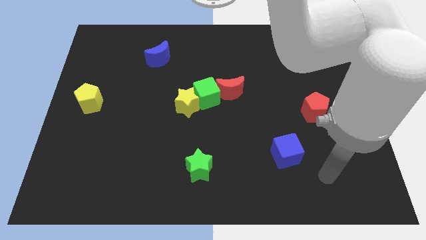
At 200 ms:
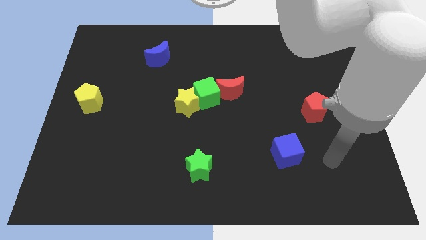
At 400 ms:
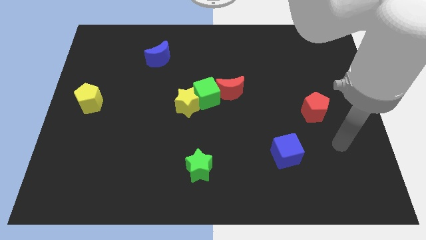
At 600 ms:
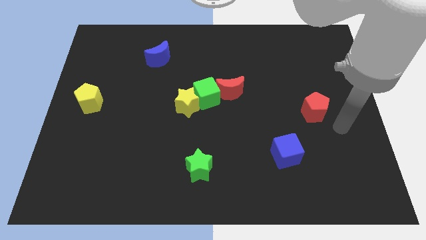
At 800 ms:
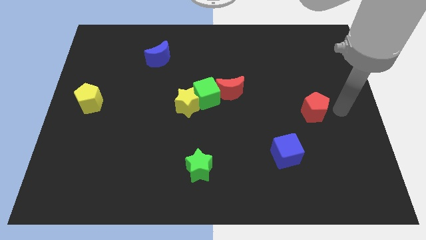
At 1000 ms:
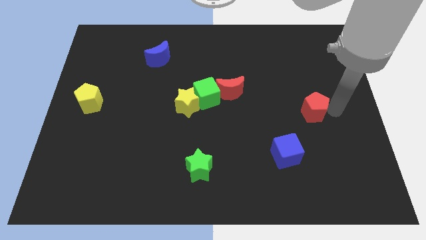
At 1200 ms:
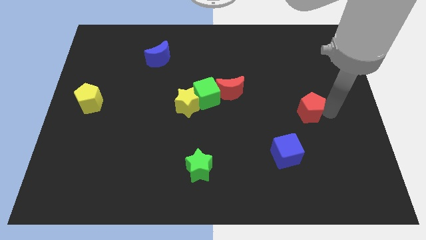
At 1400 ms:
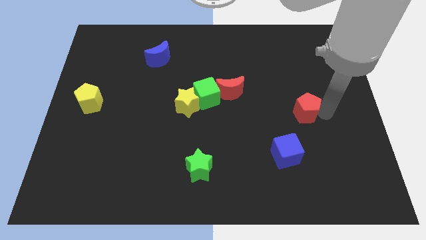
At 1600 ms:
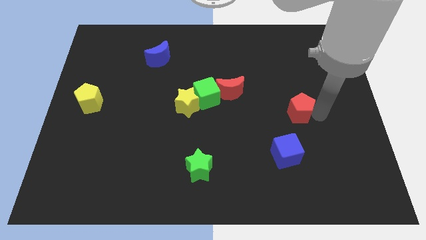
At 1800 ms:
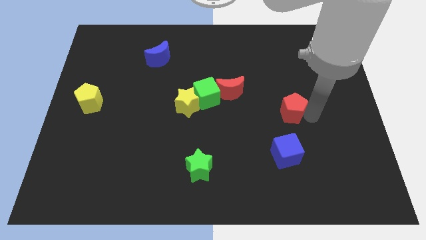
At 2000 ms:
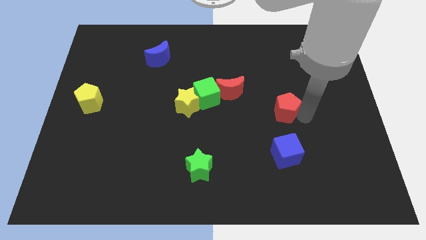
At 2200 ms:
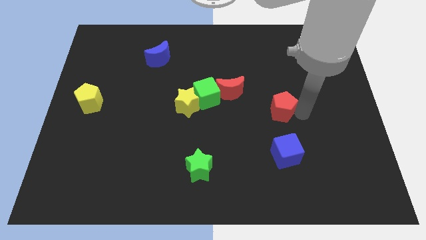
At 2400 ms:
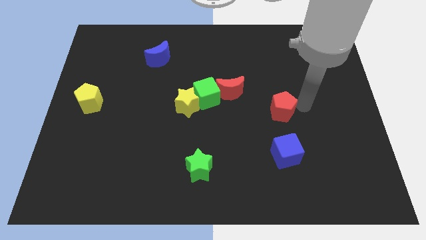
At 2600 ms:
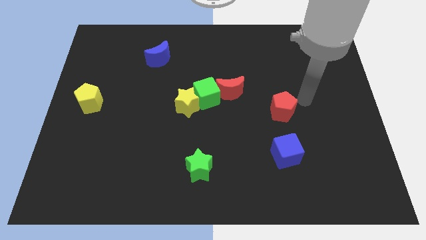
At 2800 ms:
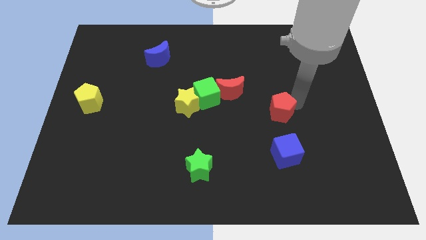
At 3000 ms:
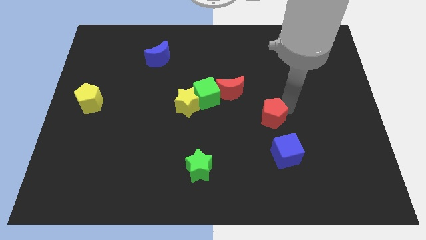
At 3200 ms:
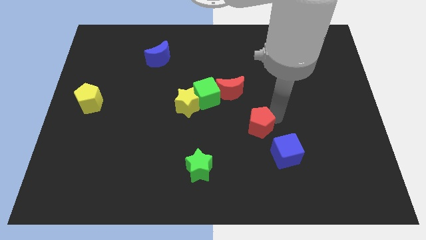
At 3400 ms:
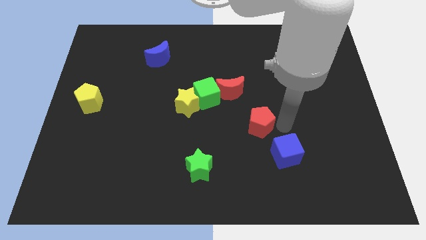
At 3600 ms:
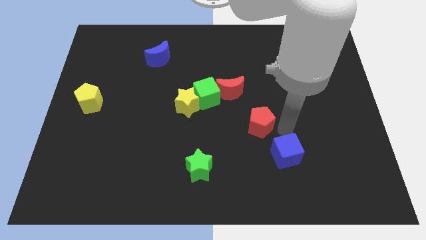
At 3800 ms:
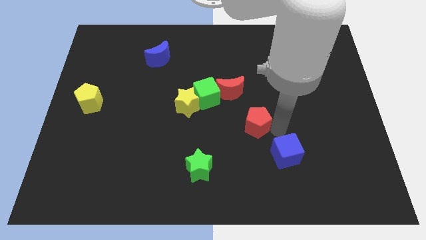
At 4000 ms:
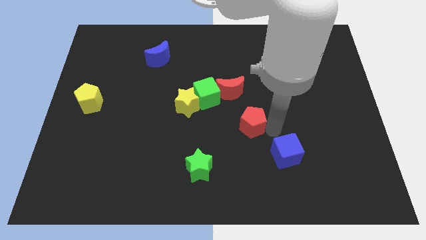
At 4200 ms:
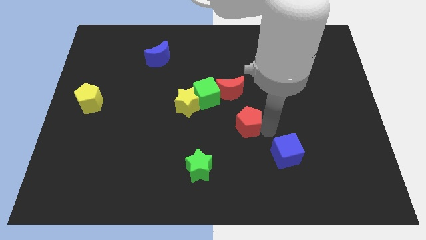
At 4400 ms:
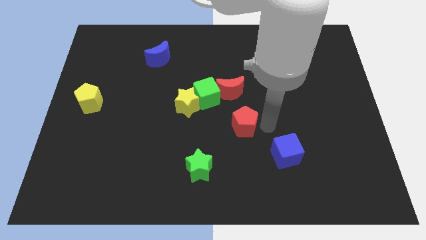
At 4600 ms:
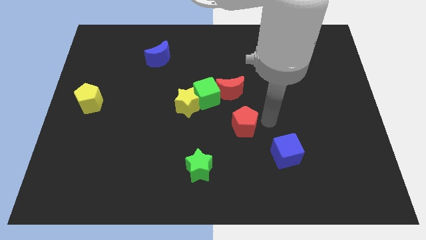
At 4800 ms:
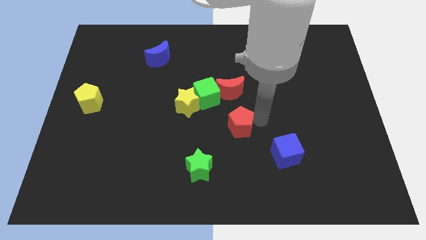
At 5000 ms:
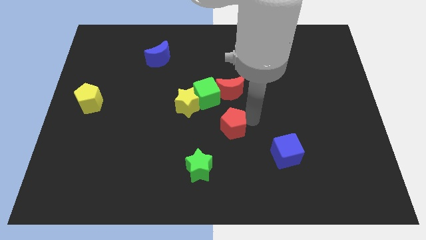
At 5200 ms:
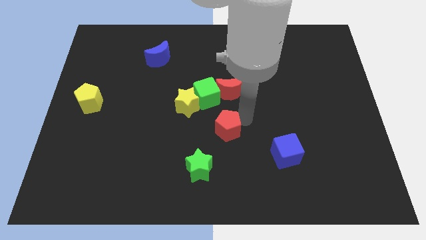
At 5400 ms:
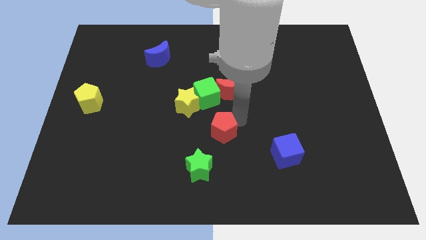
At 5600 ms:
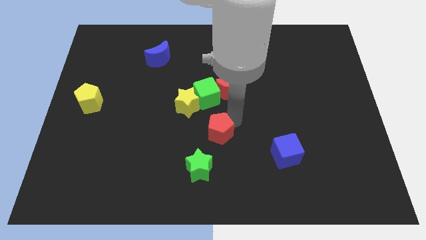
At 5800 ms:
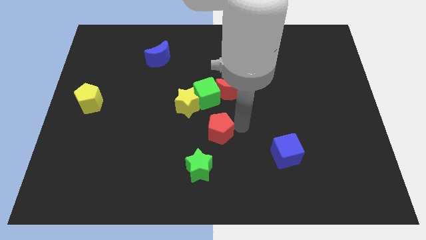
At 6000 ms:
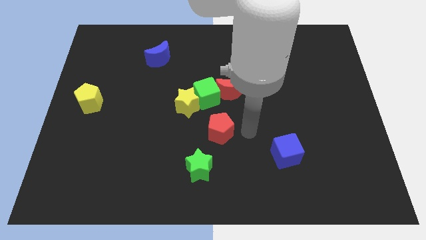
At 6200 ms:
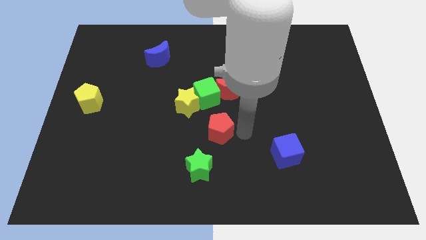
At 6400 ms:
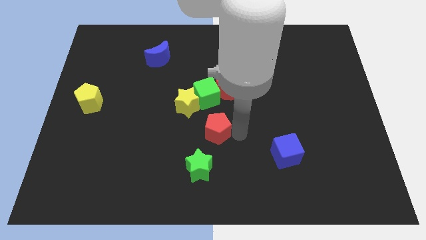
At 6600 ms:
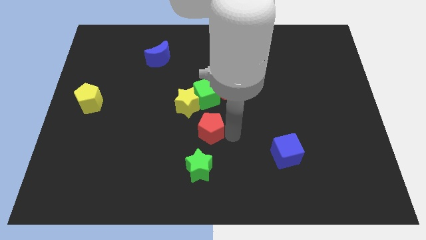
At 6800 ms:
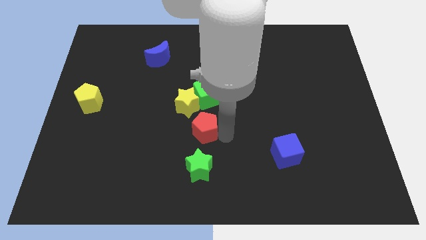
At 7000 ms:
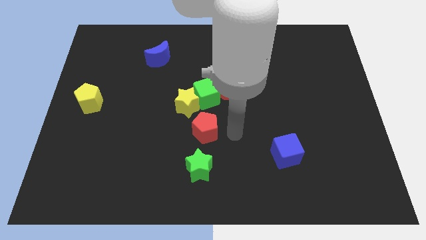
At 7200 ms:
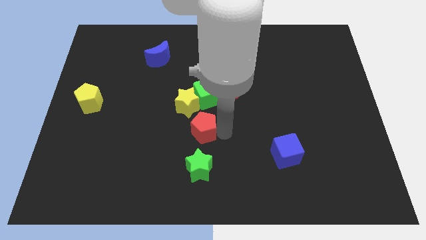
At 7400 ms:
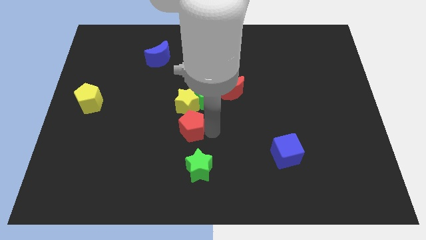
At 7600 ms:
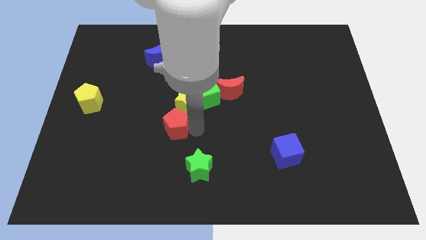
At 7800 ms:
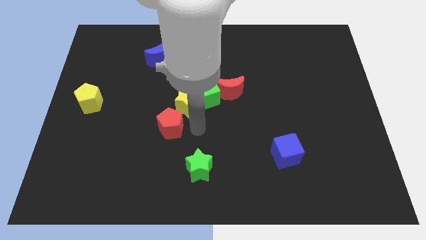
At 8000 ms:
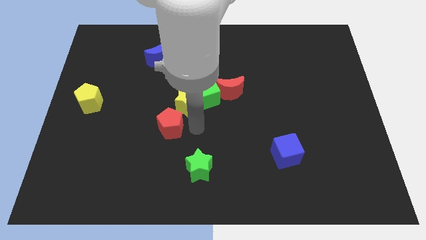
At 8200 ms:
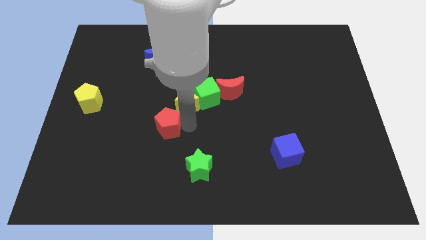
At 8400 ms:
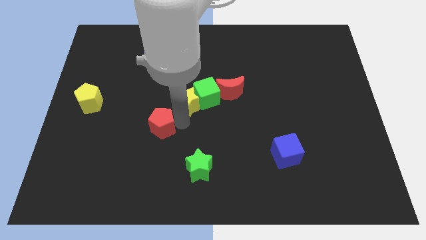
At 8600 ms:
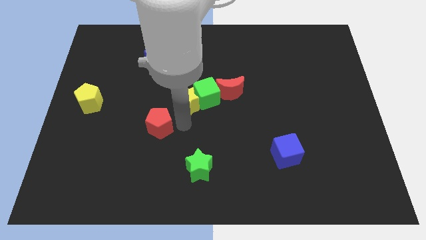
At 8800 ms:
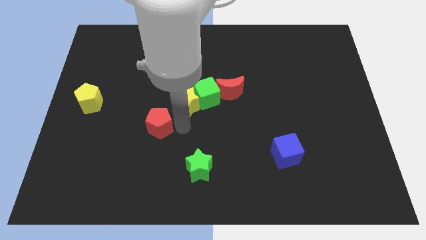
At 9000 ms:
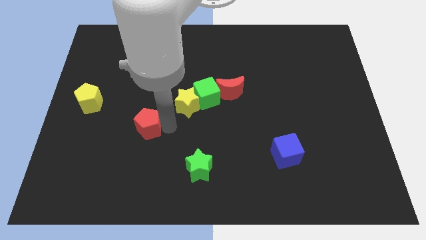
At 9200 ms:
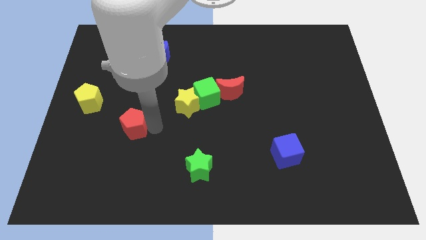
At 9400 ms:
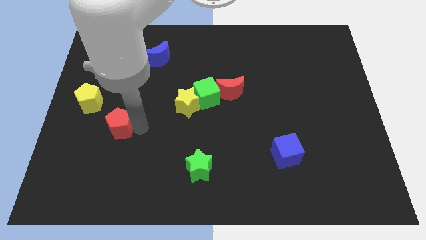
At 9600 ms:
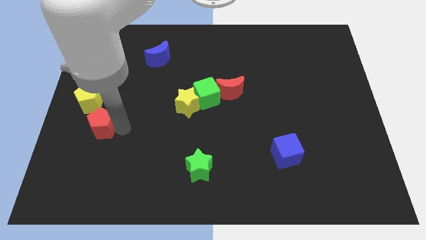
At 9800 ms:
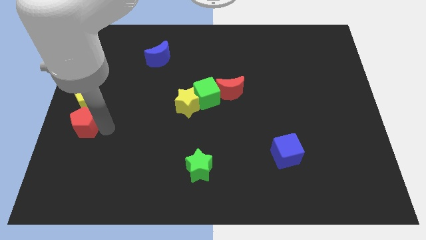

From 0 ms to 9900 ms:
push the red pentagon to the left side

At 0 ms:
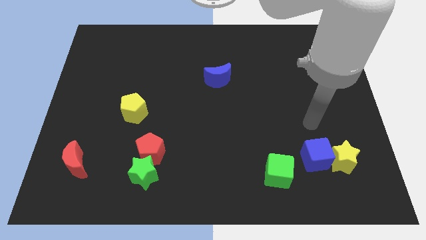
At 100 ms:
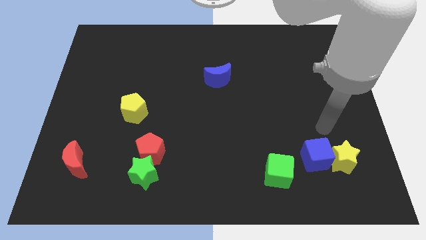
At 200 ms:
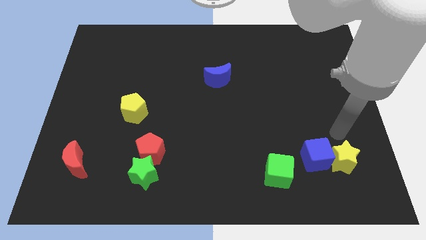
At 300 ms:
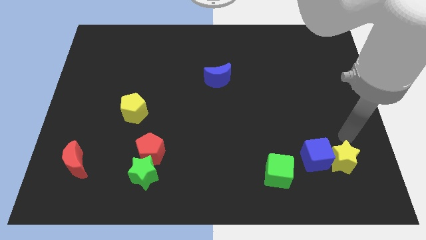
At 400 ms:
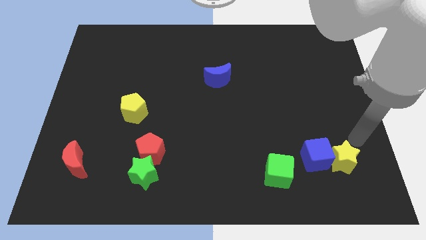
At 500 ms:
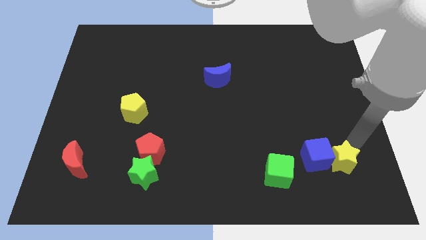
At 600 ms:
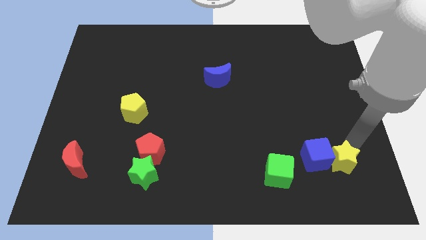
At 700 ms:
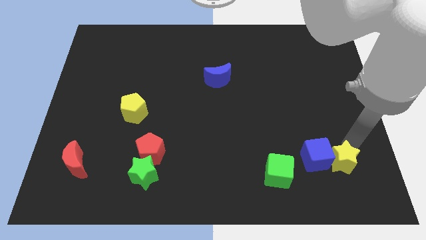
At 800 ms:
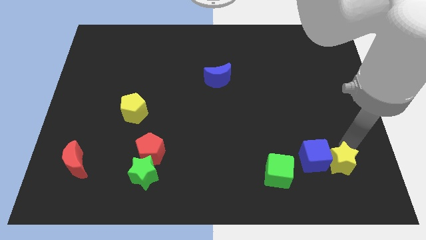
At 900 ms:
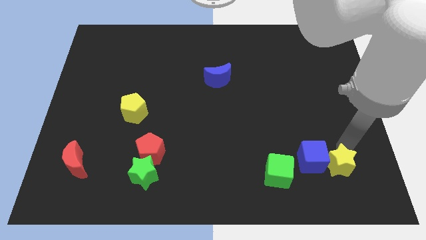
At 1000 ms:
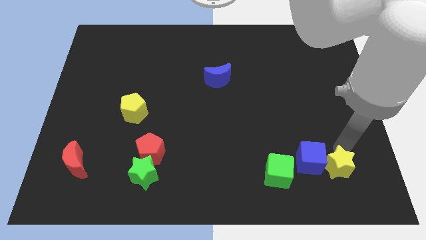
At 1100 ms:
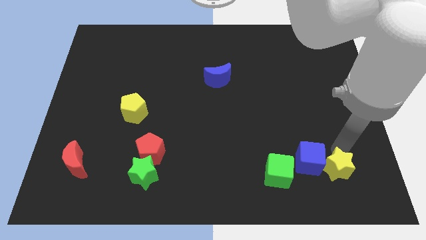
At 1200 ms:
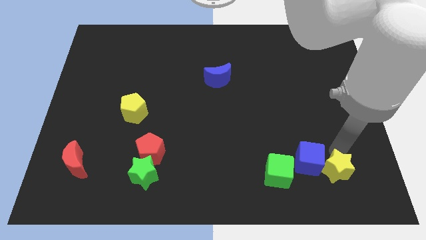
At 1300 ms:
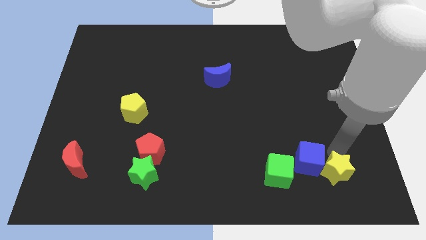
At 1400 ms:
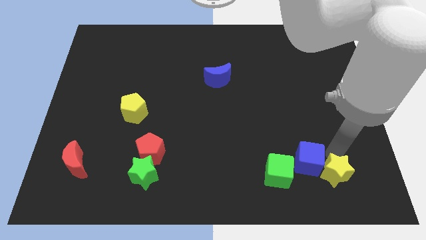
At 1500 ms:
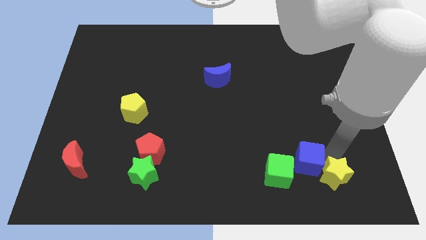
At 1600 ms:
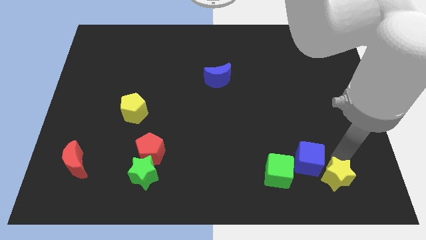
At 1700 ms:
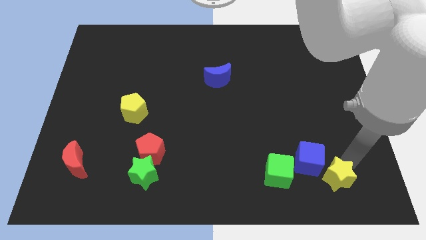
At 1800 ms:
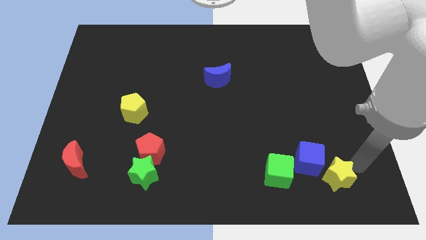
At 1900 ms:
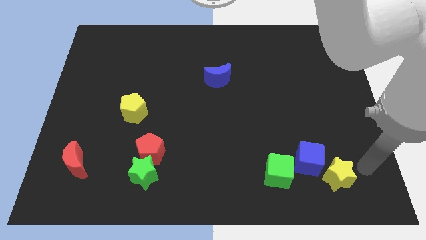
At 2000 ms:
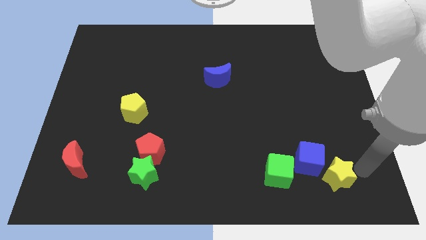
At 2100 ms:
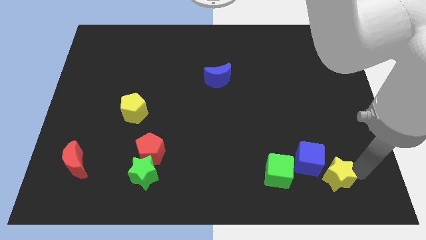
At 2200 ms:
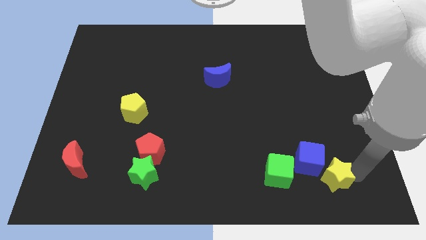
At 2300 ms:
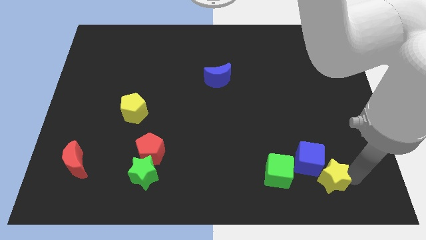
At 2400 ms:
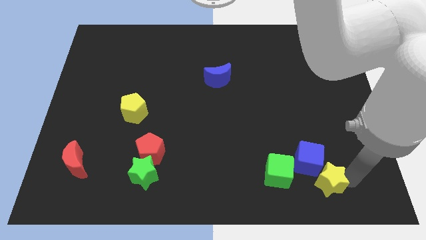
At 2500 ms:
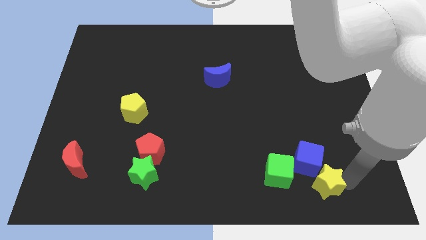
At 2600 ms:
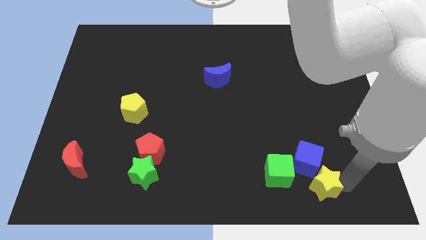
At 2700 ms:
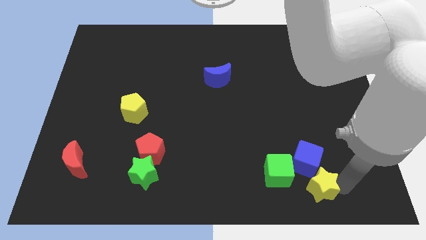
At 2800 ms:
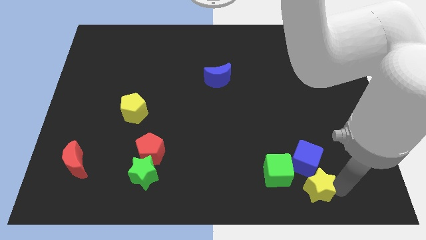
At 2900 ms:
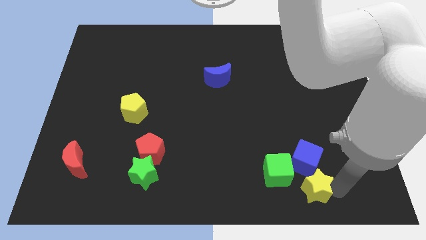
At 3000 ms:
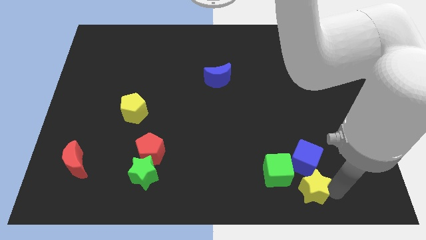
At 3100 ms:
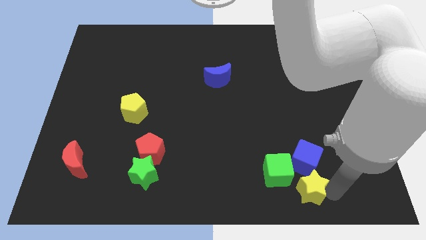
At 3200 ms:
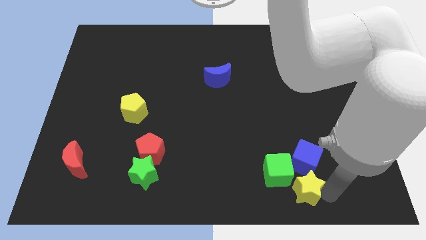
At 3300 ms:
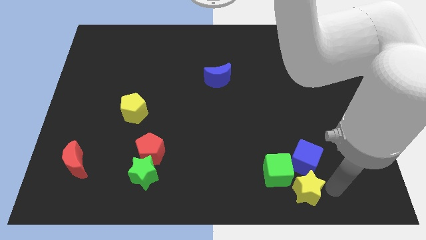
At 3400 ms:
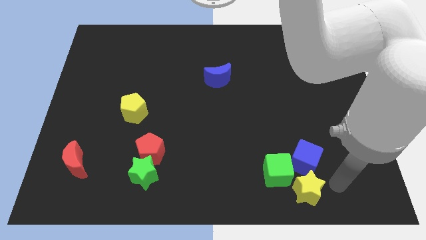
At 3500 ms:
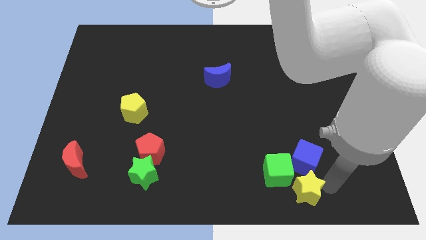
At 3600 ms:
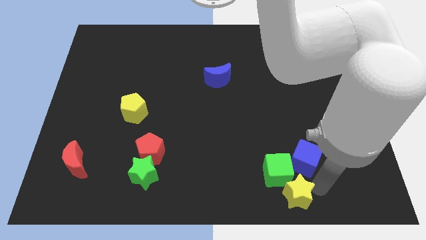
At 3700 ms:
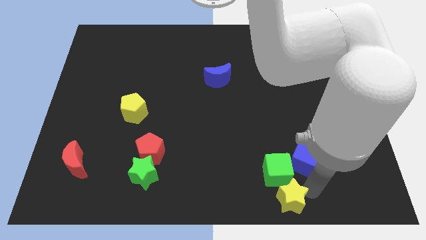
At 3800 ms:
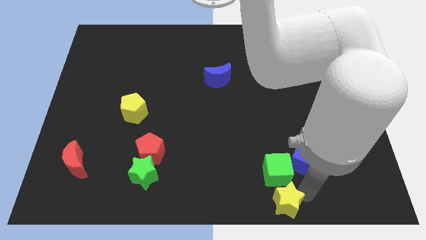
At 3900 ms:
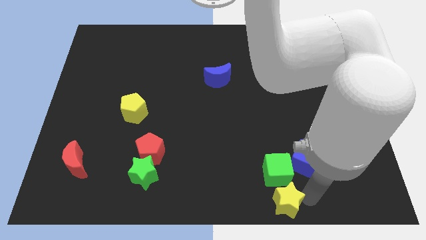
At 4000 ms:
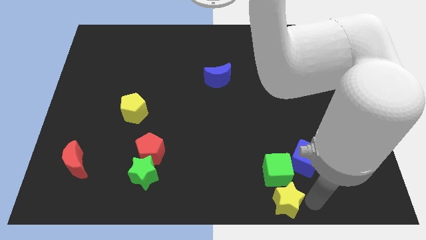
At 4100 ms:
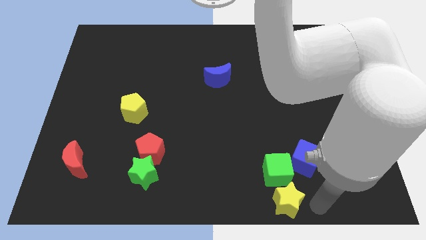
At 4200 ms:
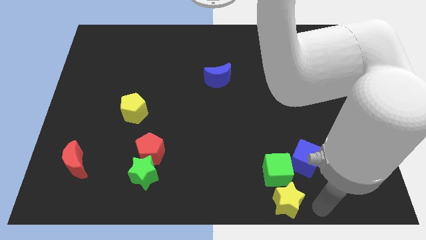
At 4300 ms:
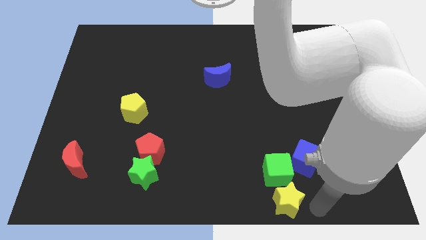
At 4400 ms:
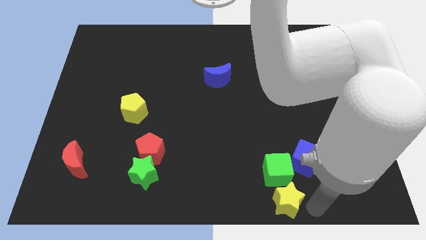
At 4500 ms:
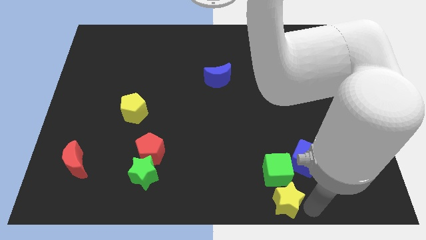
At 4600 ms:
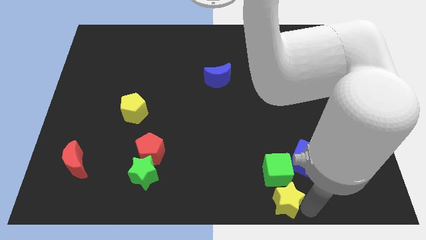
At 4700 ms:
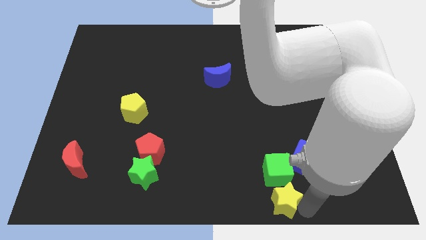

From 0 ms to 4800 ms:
put the yellow star to the bottom
